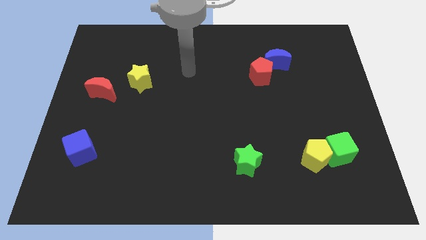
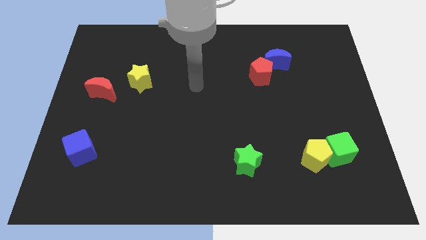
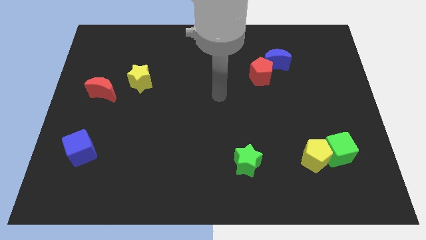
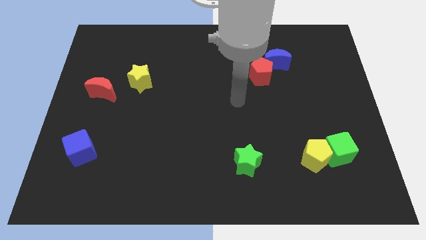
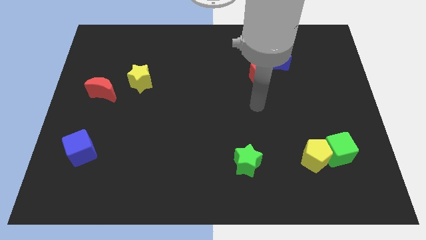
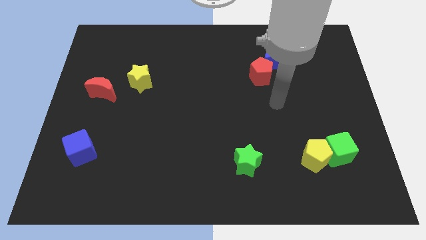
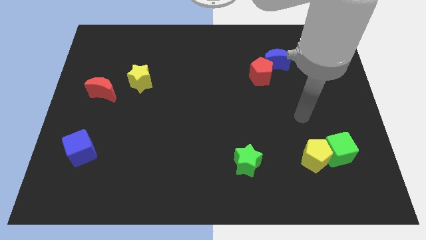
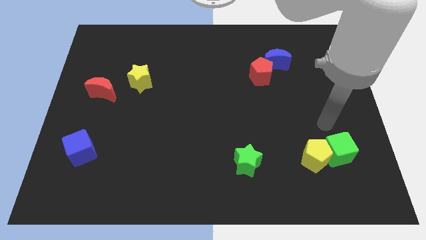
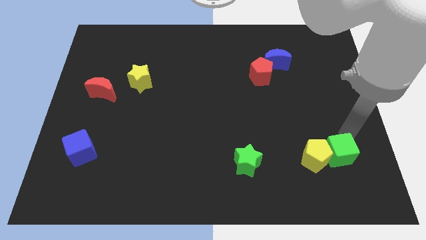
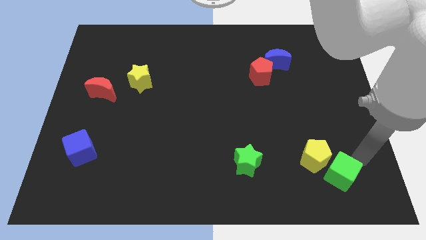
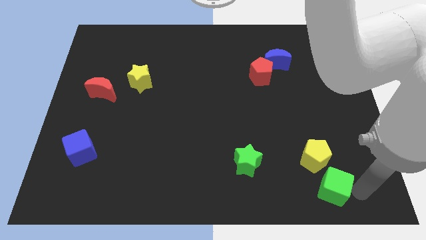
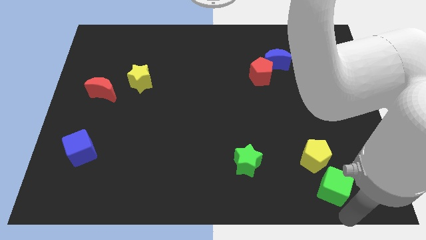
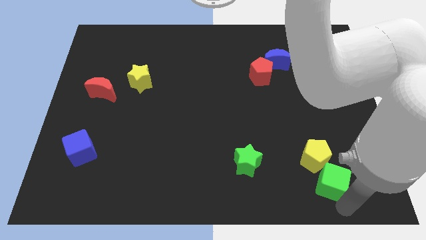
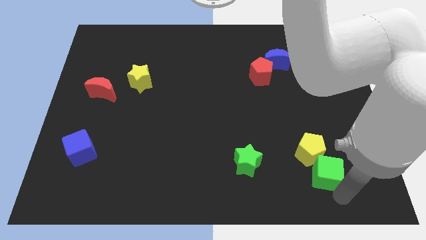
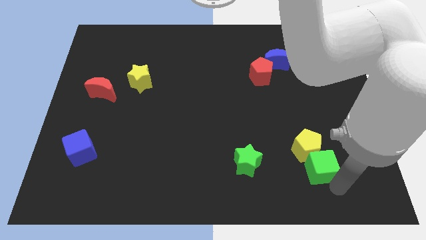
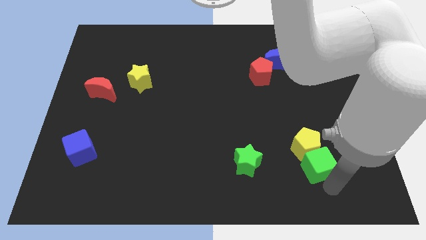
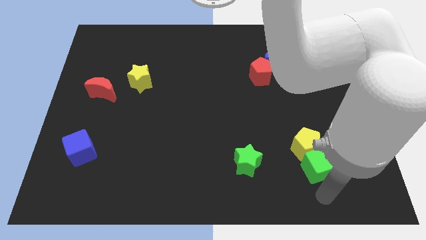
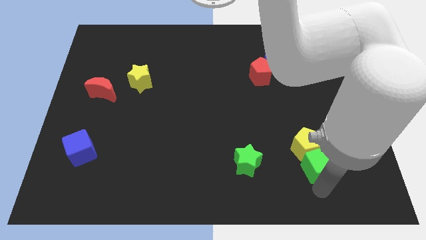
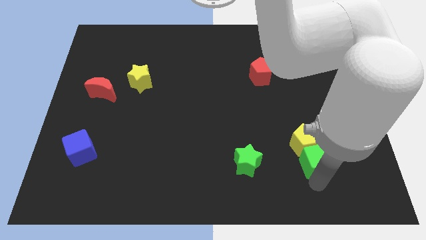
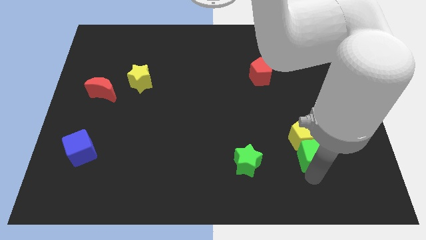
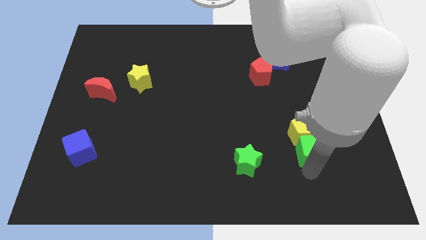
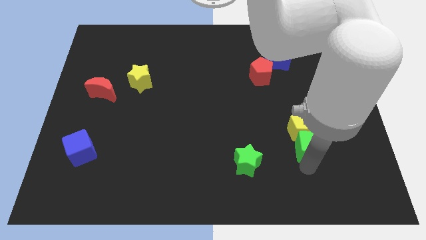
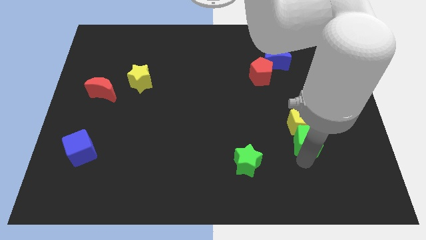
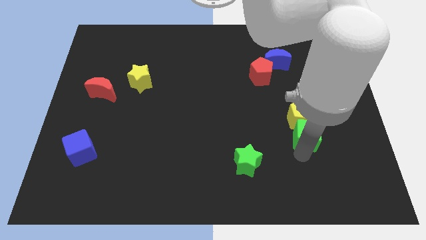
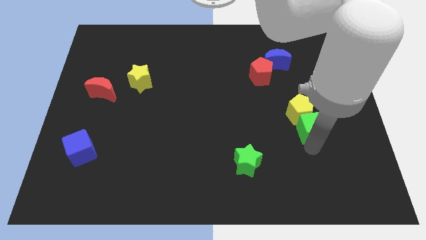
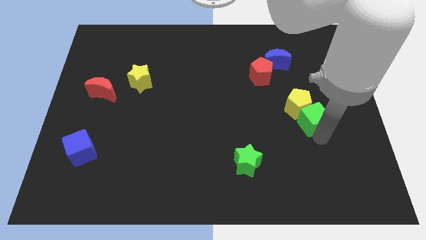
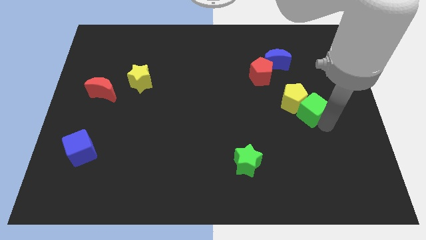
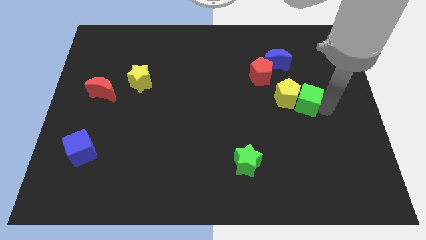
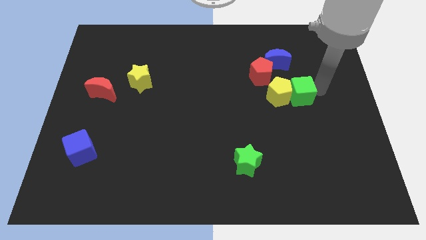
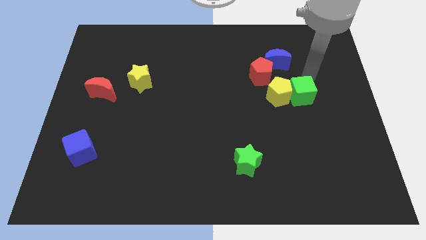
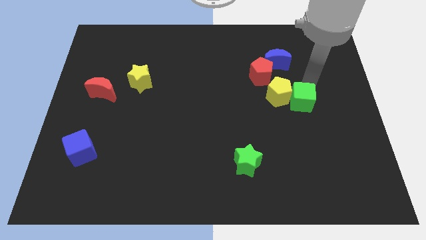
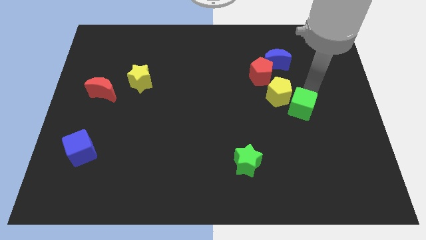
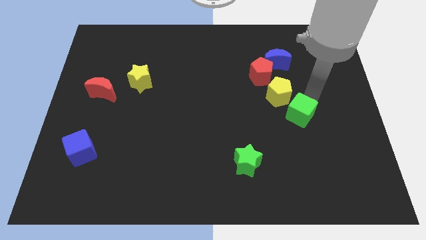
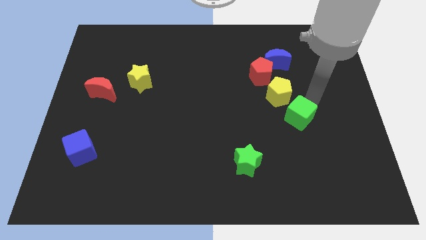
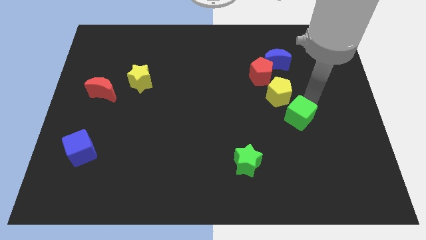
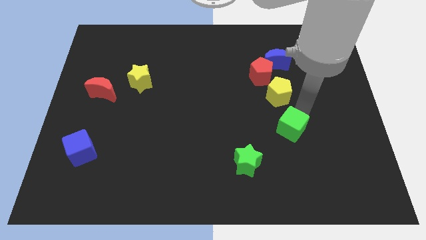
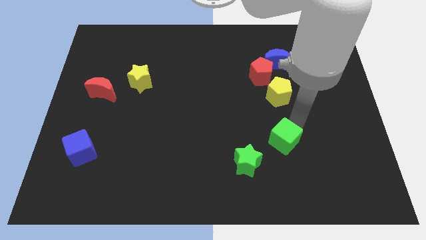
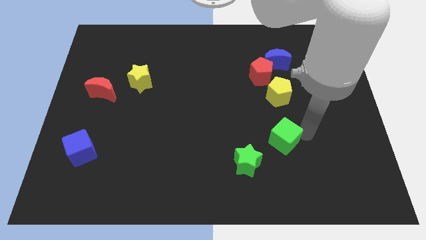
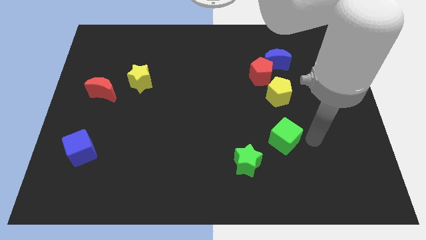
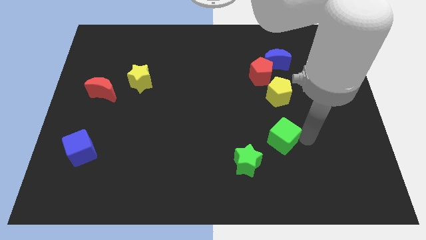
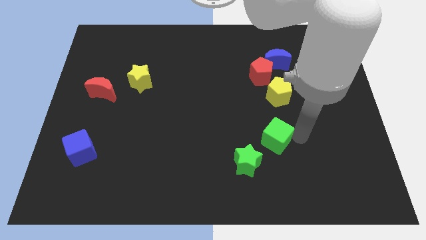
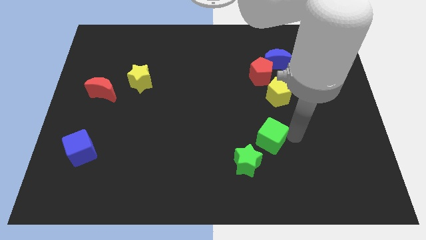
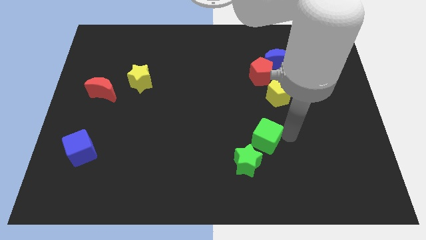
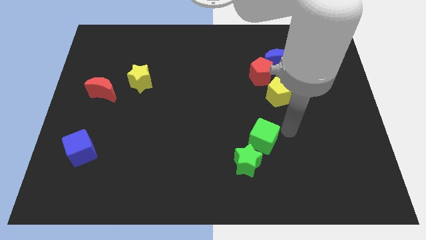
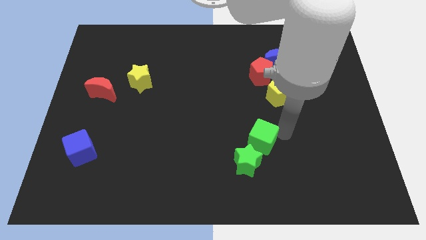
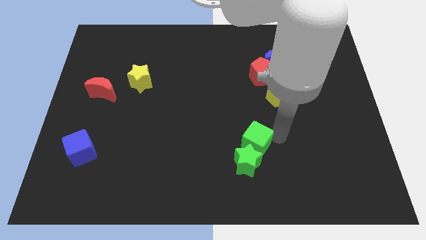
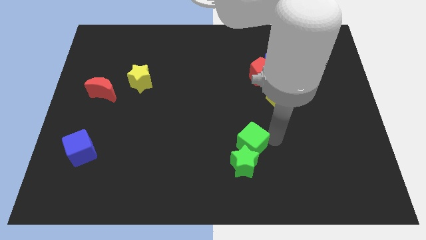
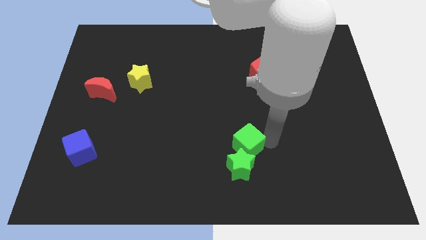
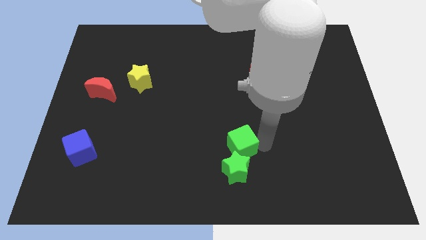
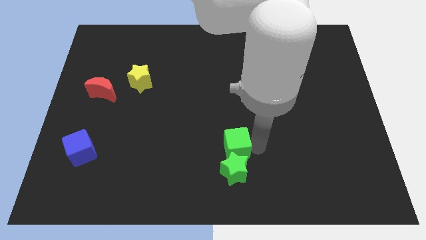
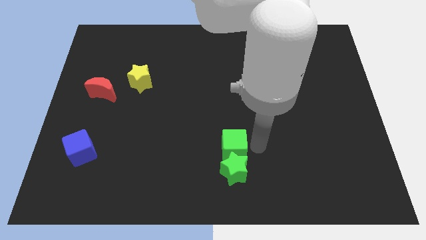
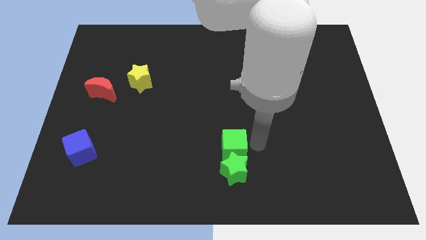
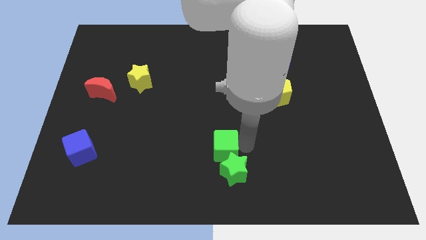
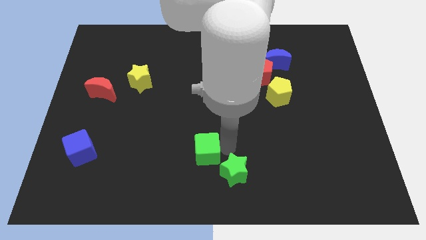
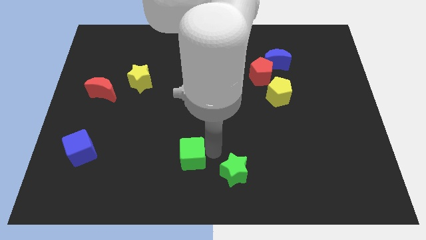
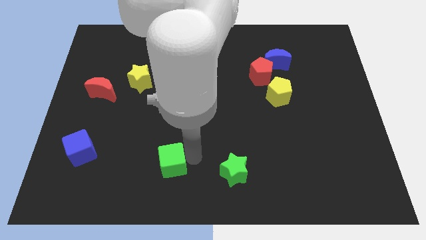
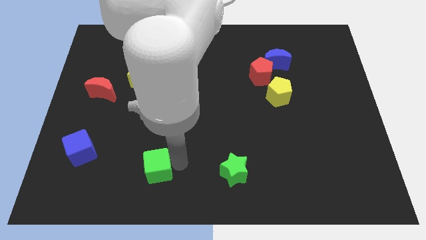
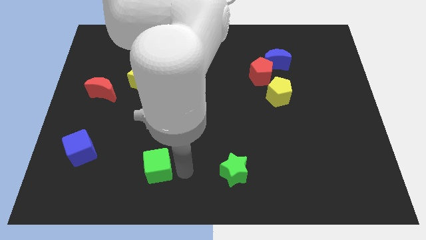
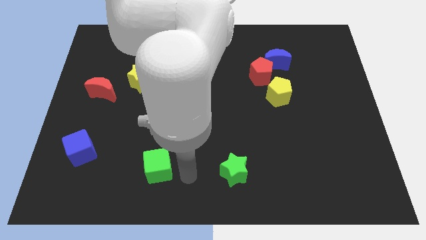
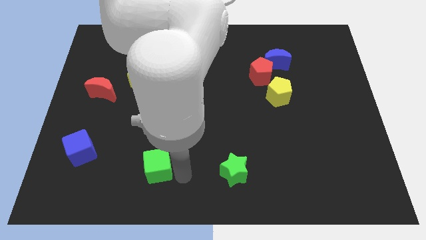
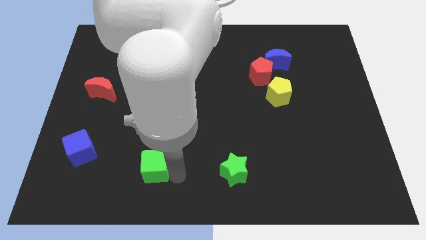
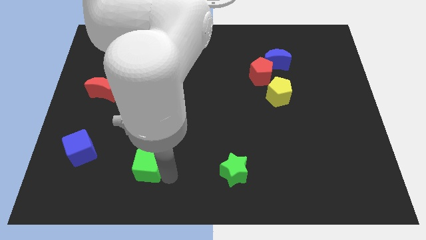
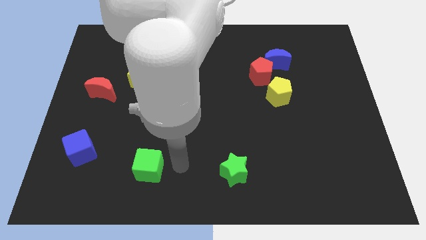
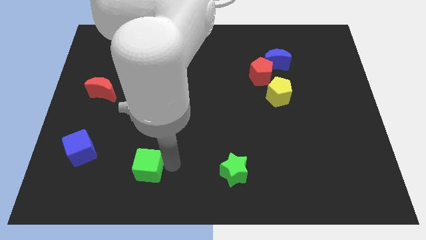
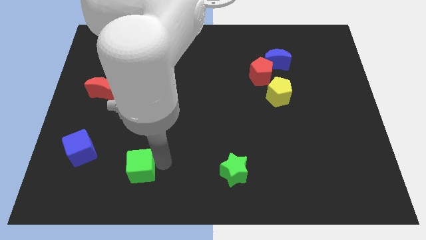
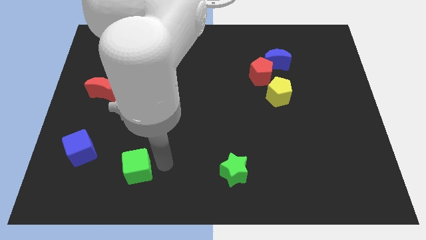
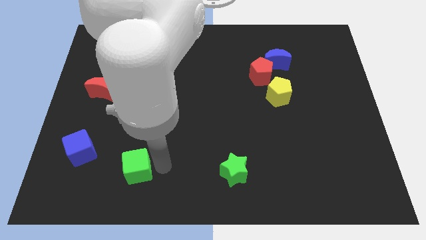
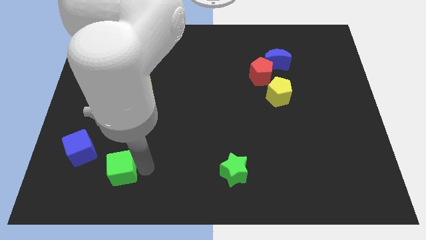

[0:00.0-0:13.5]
push the green cube diagonally down and to the right of the blue cube
